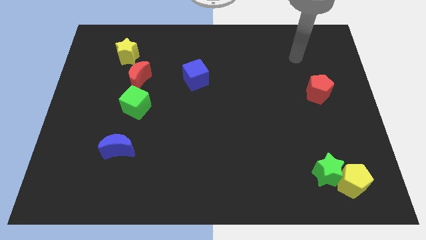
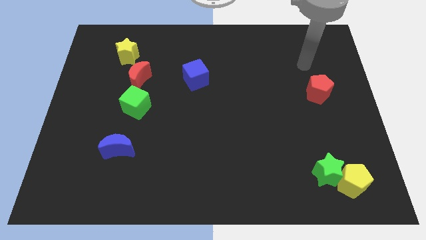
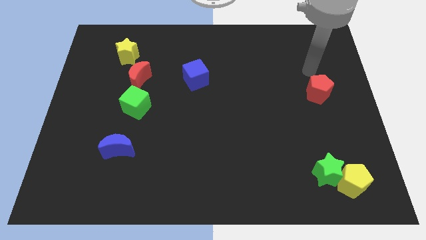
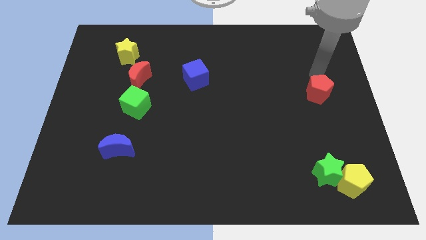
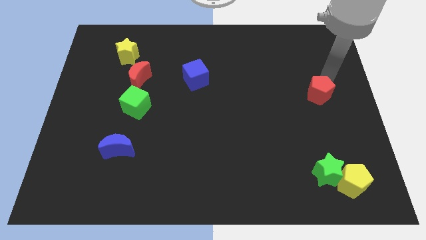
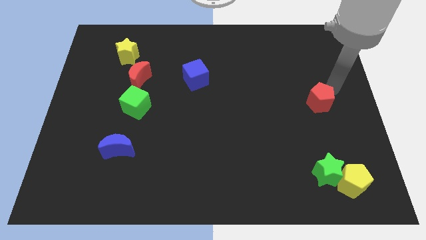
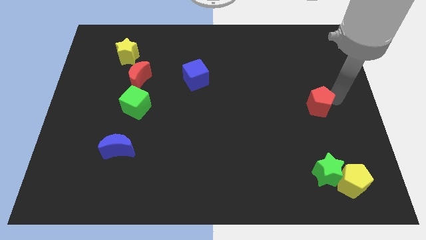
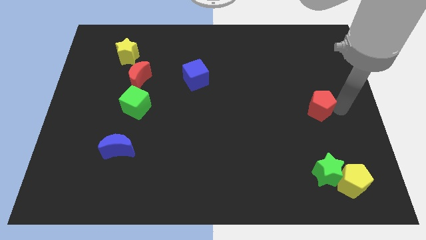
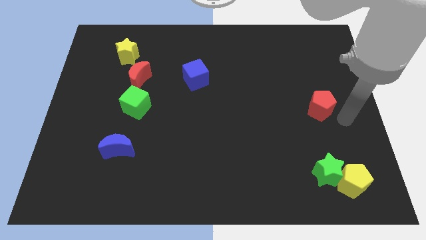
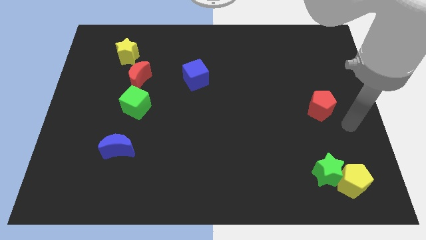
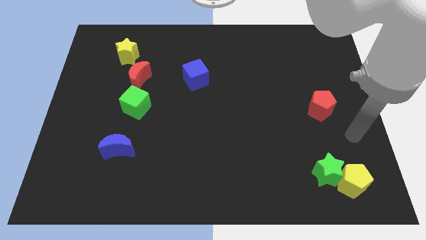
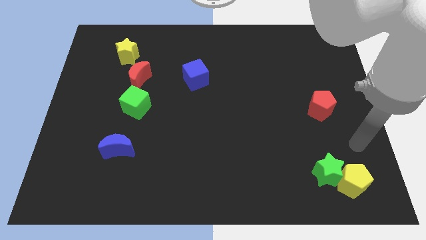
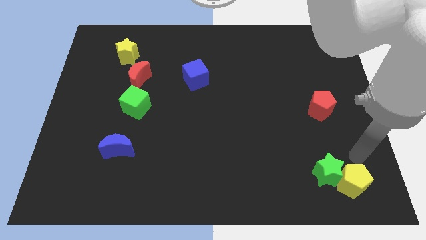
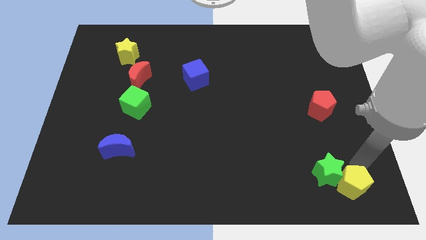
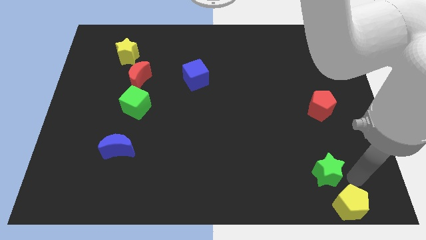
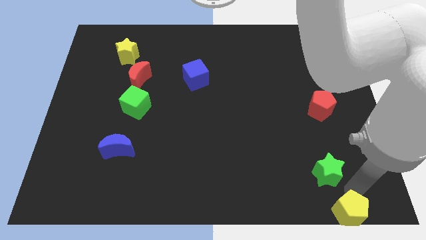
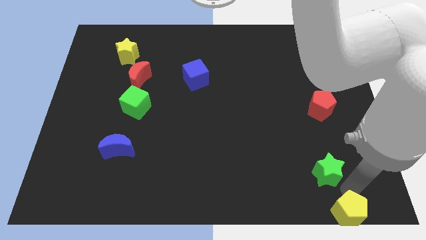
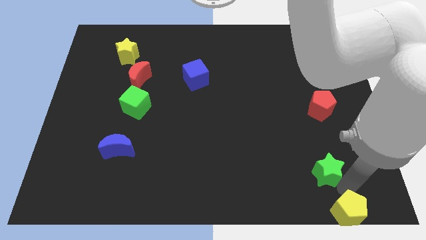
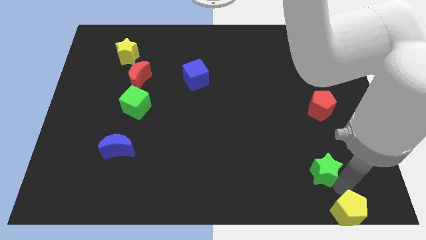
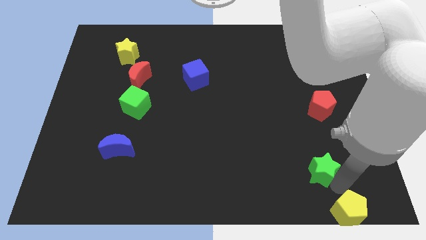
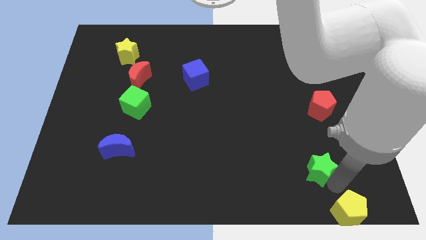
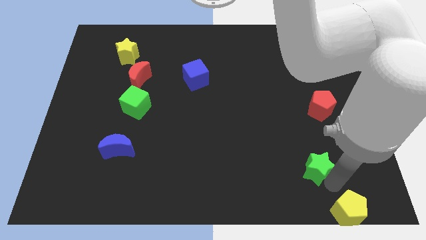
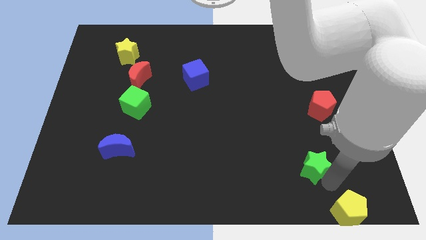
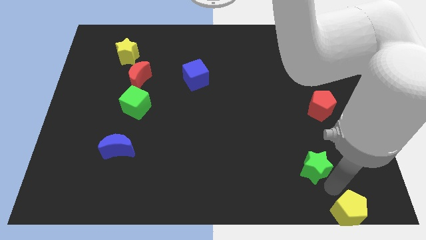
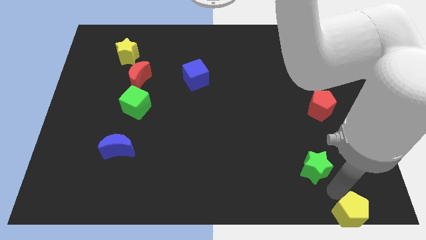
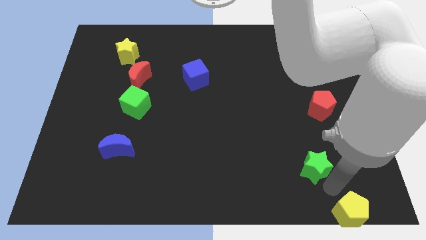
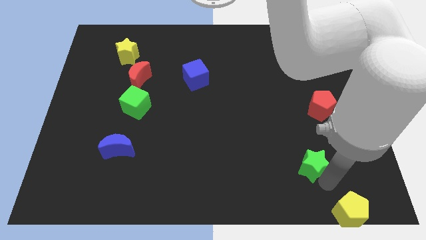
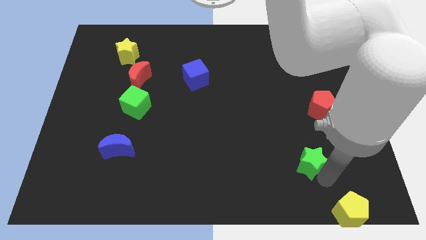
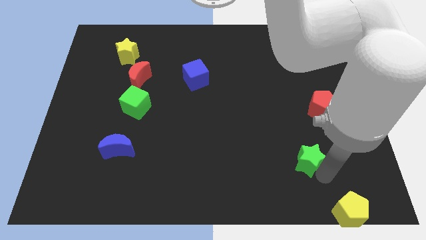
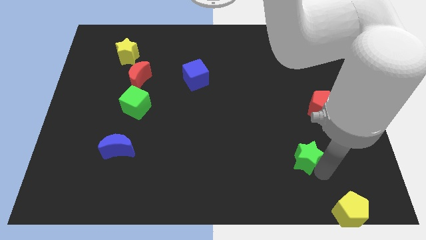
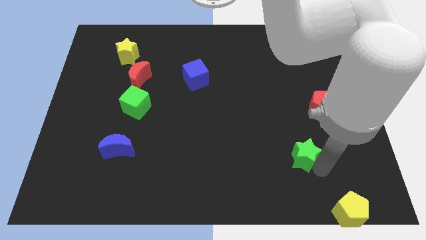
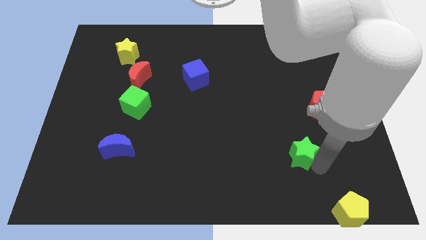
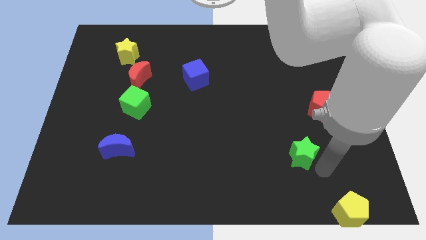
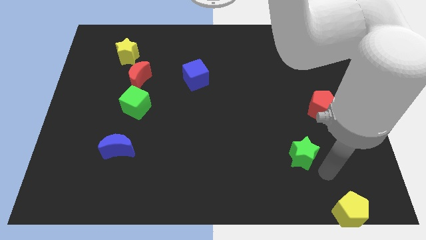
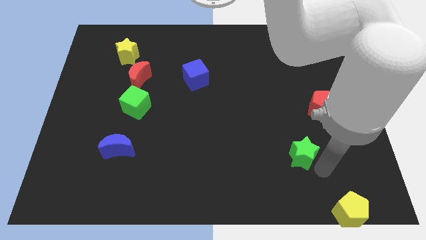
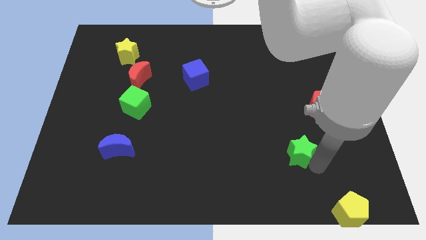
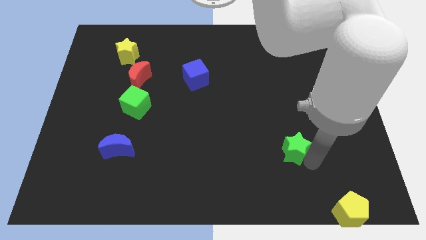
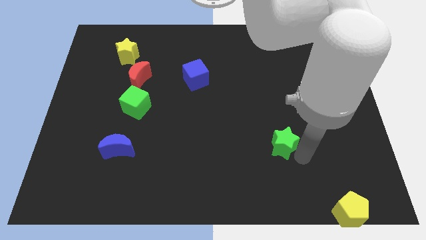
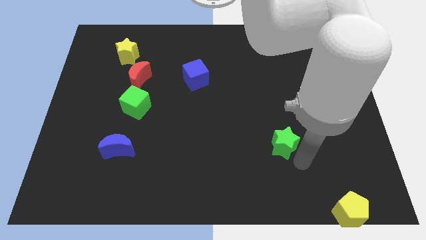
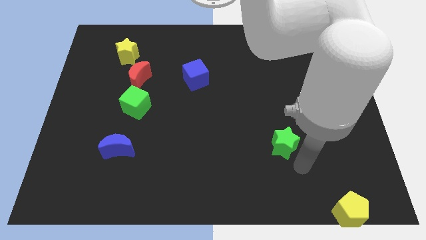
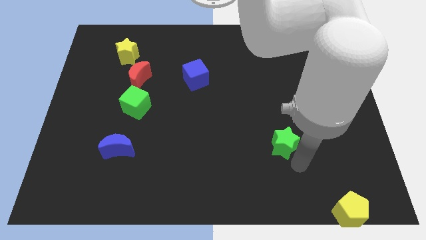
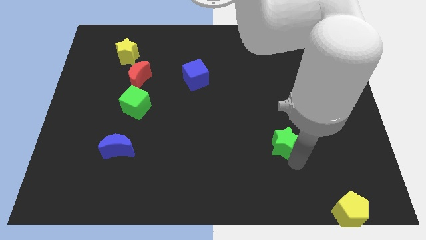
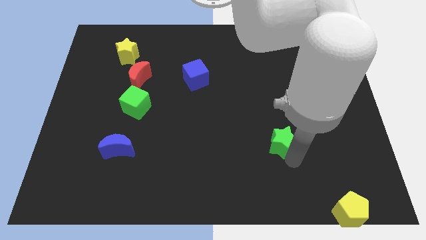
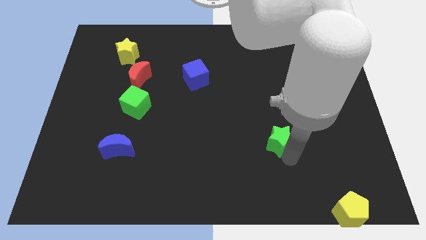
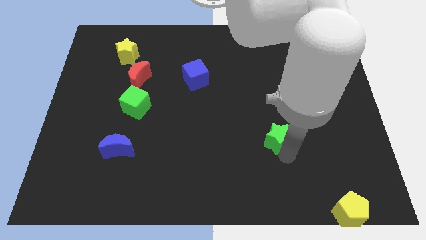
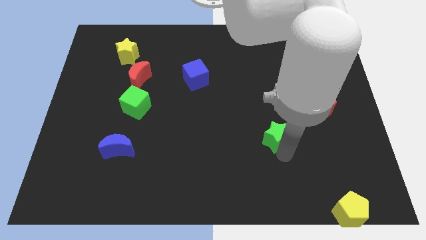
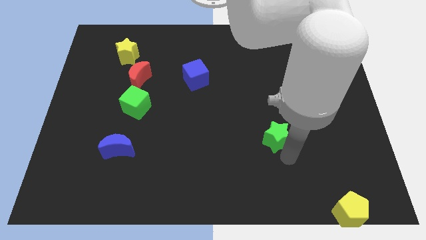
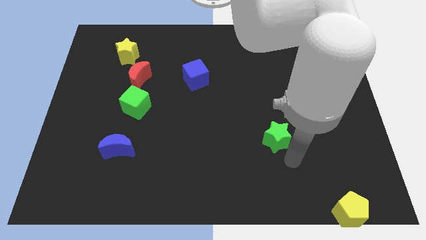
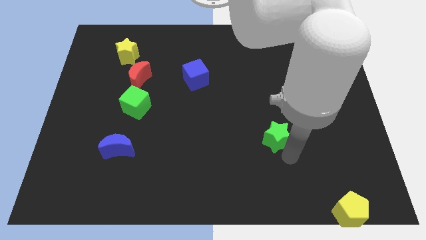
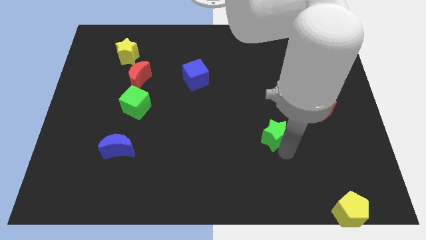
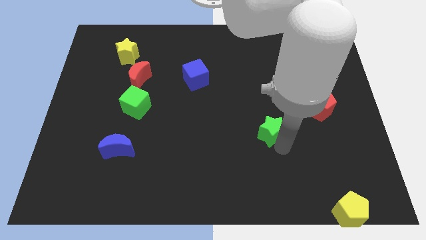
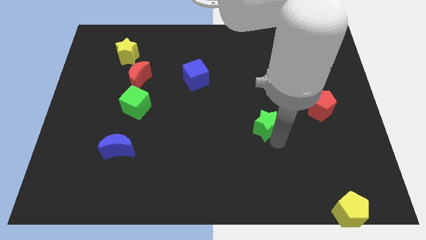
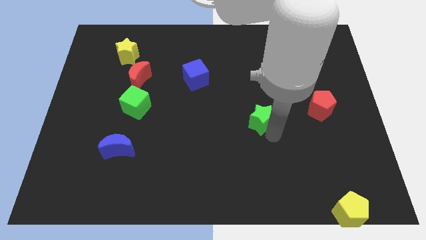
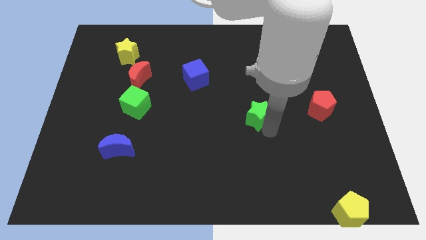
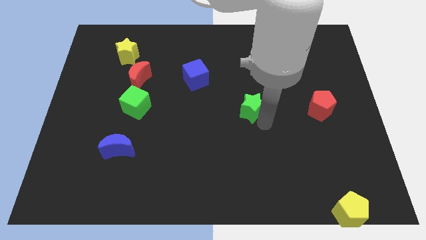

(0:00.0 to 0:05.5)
move the green star diagonally up and left

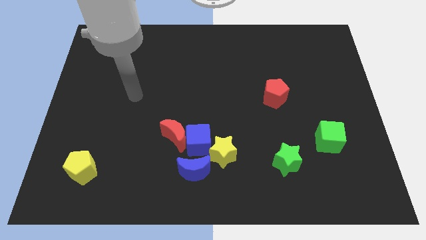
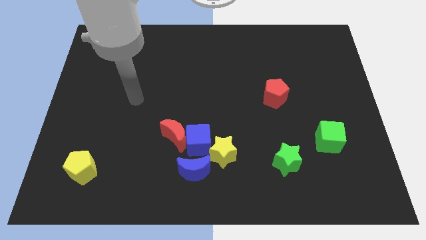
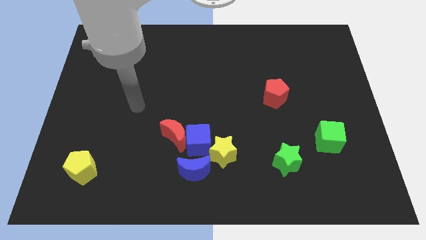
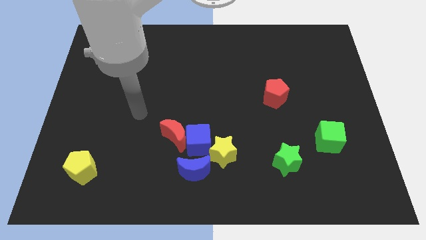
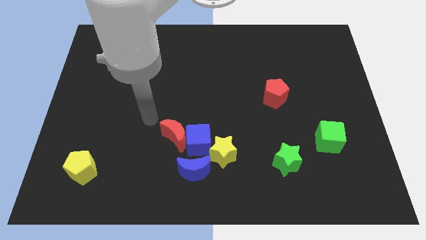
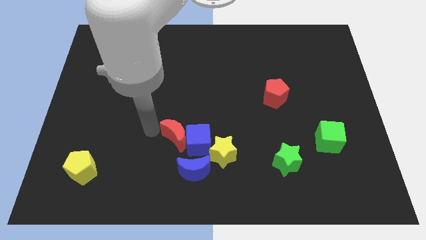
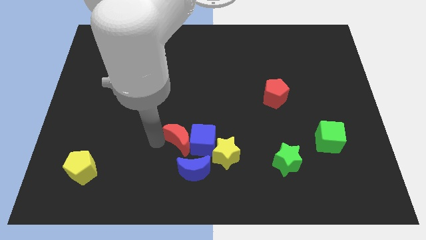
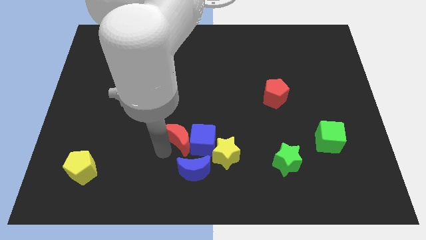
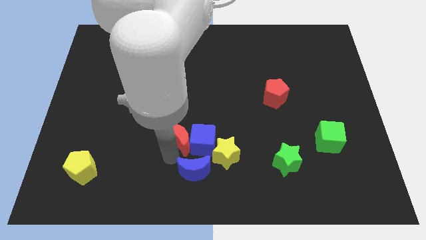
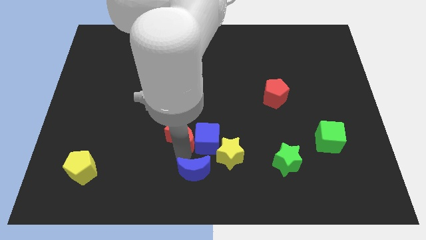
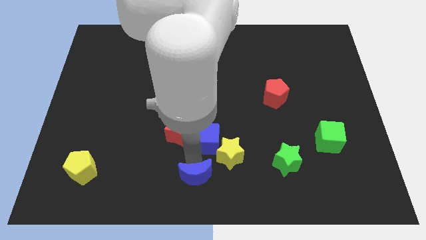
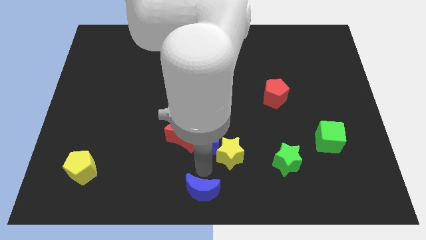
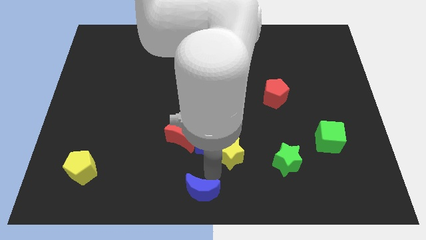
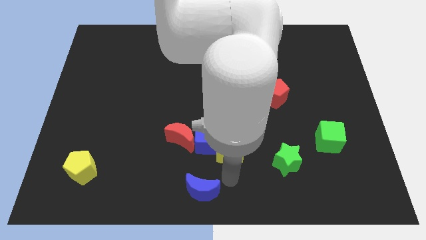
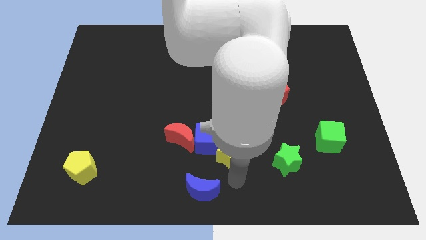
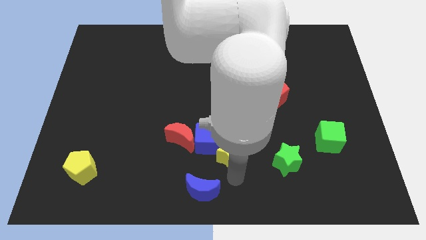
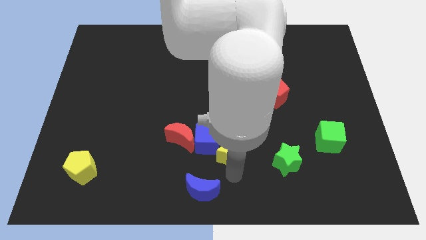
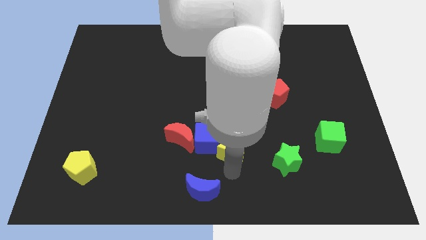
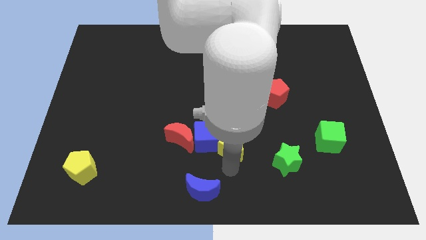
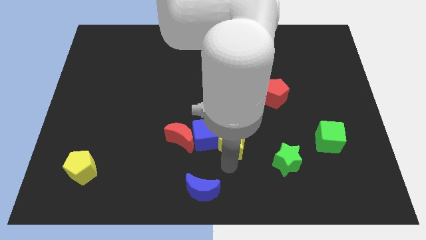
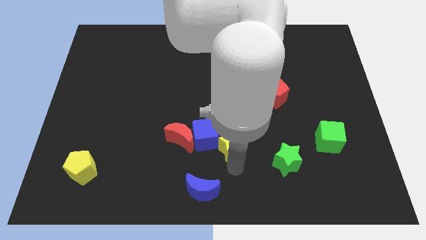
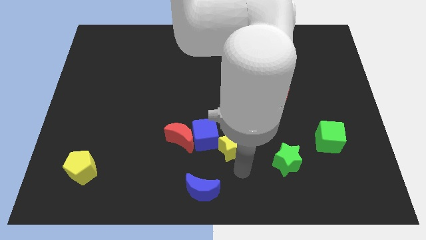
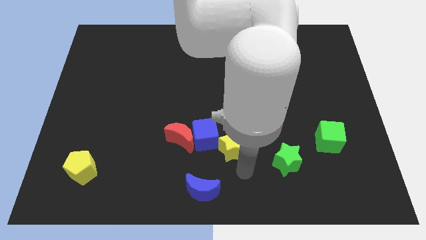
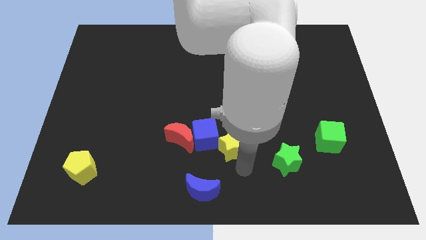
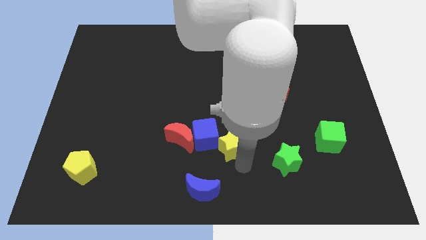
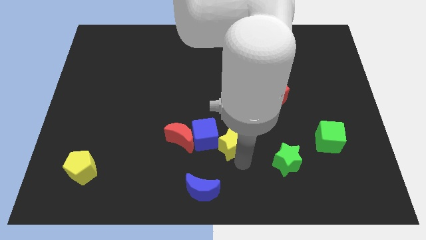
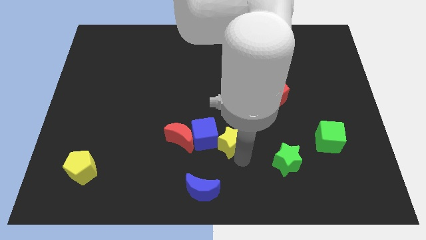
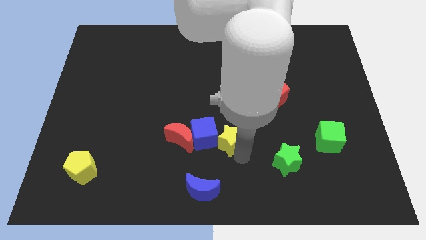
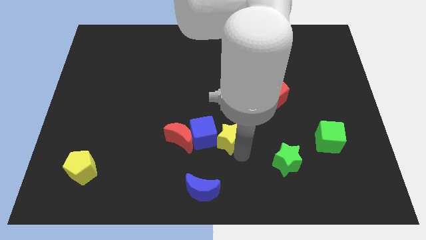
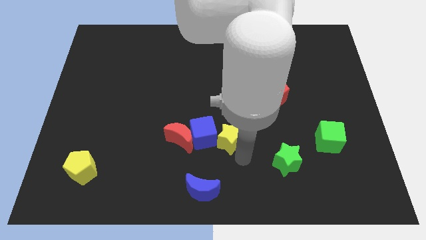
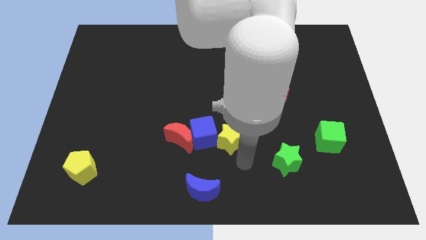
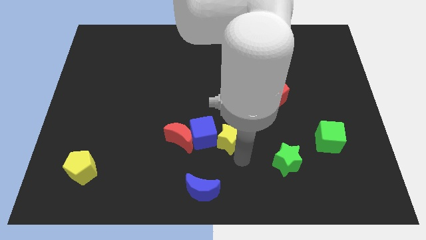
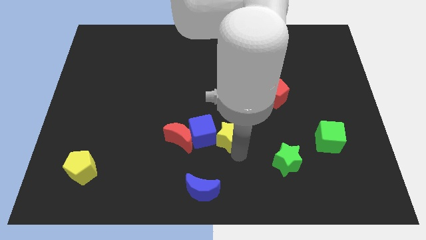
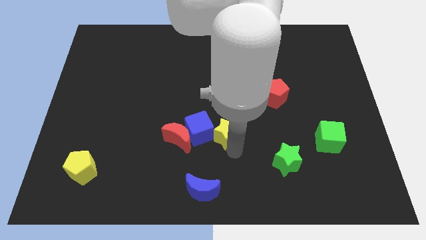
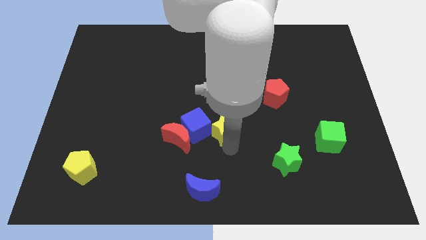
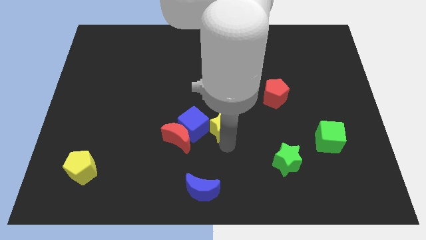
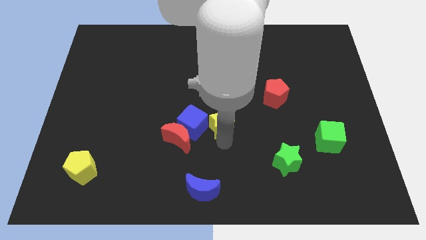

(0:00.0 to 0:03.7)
slightly move the yellow star up
